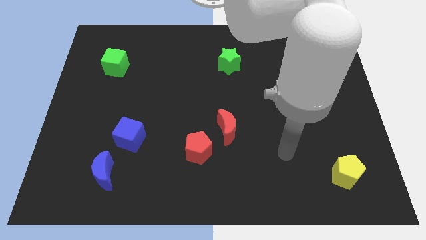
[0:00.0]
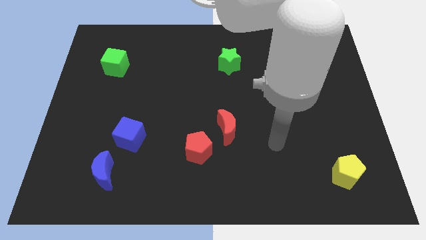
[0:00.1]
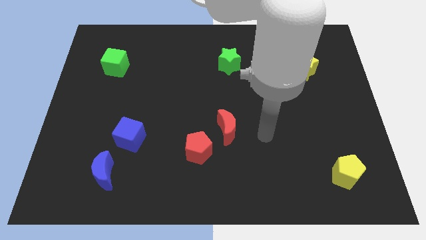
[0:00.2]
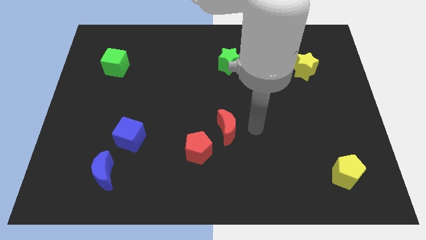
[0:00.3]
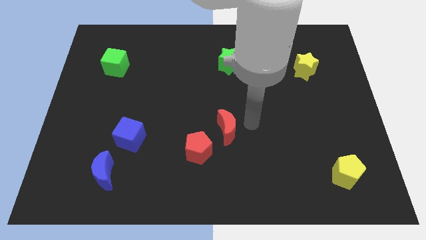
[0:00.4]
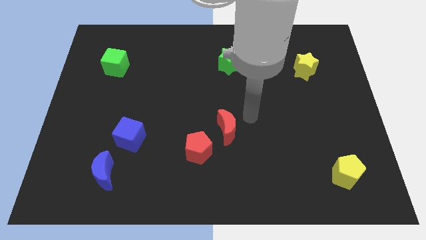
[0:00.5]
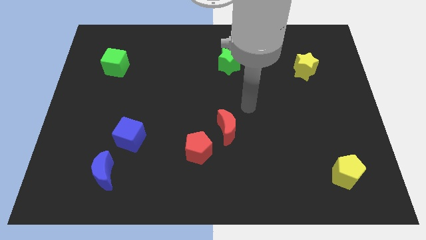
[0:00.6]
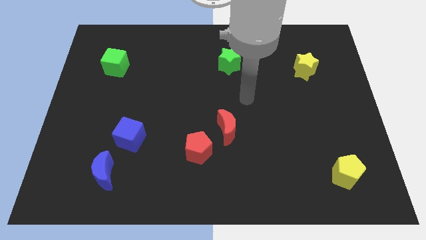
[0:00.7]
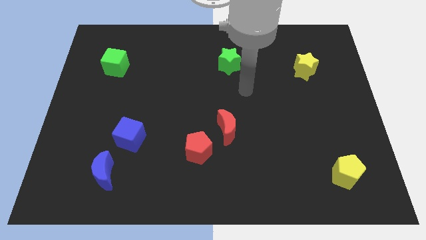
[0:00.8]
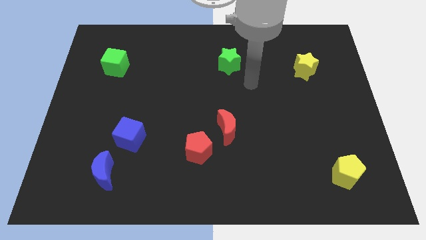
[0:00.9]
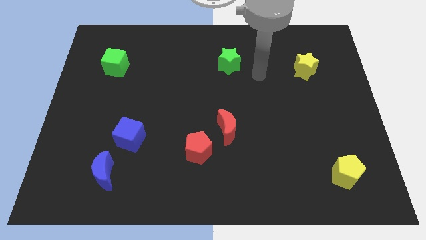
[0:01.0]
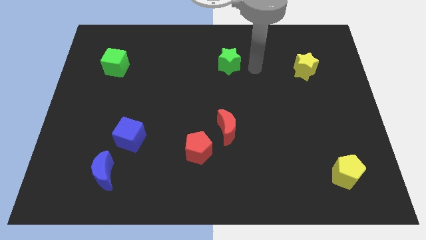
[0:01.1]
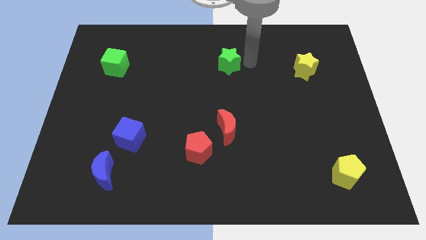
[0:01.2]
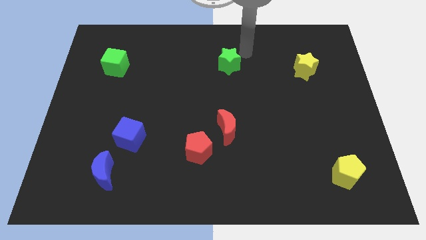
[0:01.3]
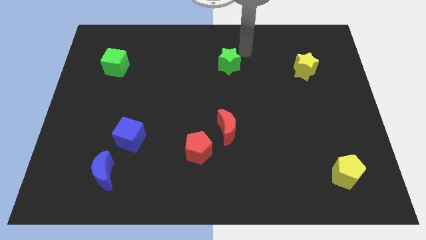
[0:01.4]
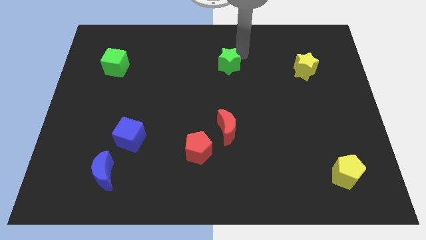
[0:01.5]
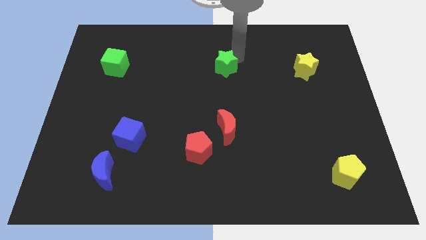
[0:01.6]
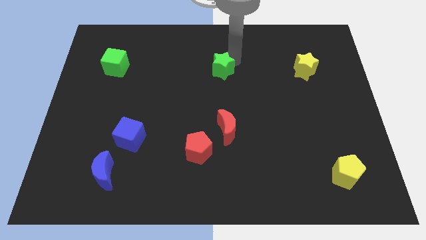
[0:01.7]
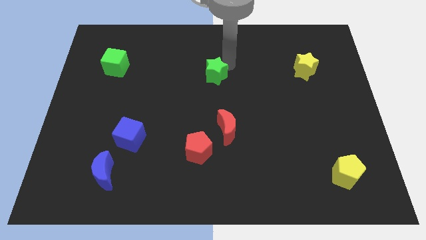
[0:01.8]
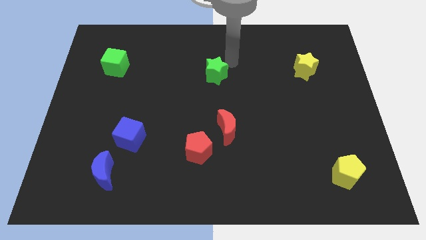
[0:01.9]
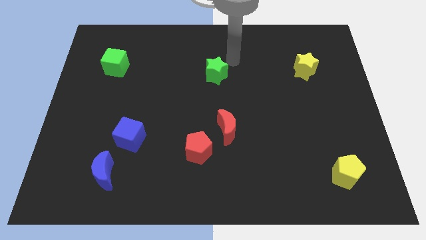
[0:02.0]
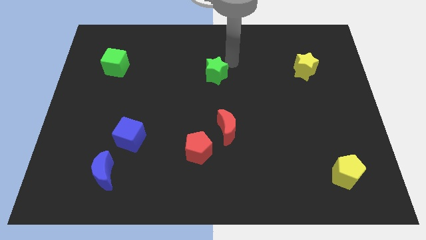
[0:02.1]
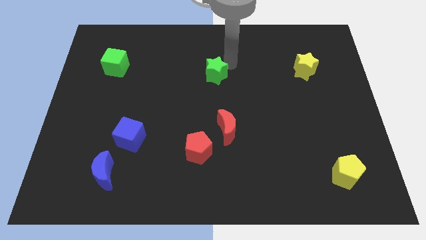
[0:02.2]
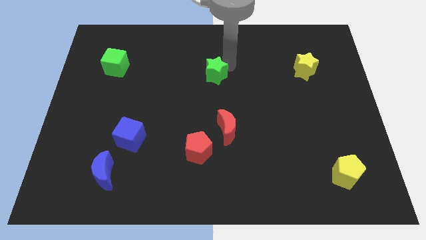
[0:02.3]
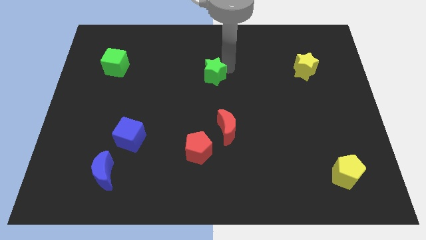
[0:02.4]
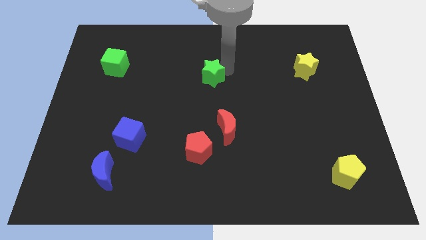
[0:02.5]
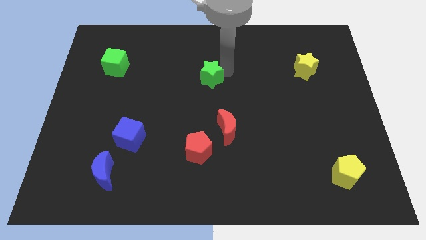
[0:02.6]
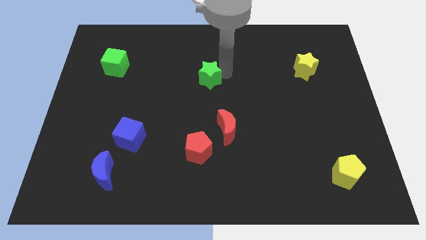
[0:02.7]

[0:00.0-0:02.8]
move the green star downwards and then to the left a bit

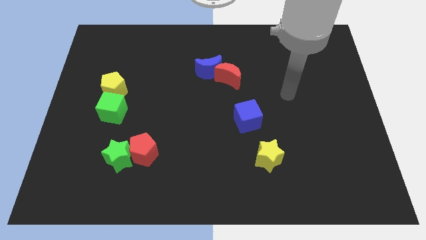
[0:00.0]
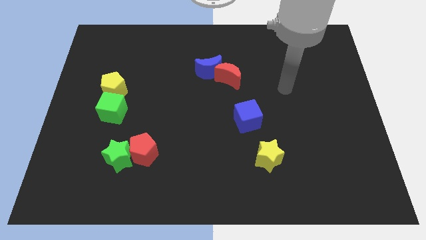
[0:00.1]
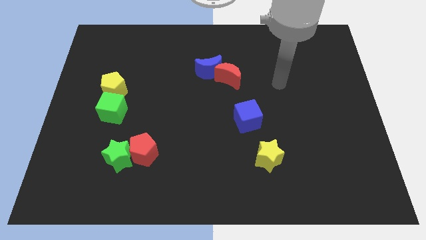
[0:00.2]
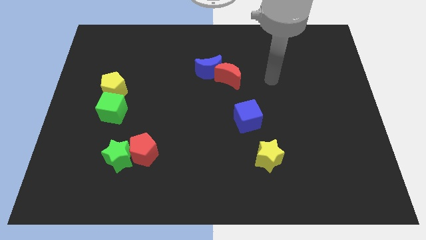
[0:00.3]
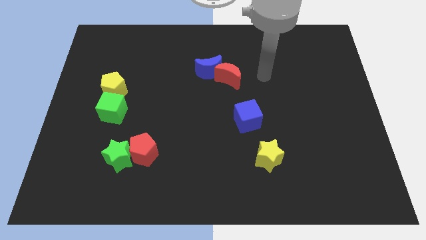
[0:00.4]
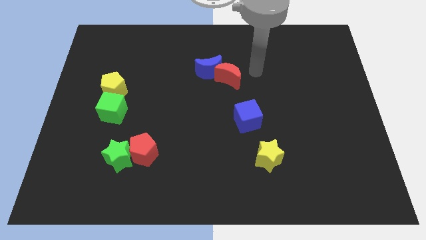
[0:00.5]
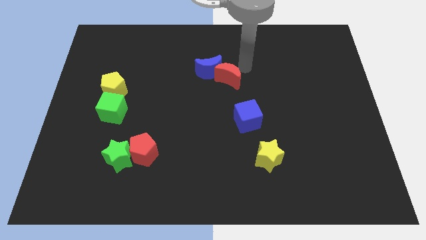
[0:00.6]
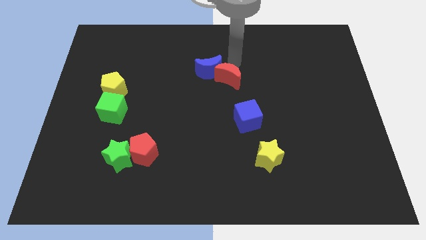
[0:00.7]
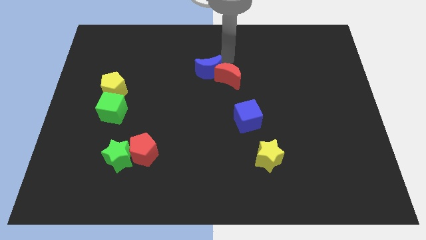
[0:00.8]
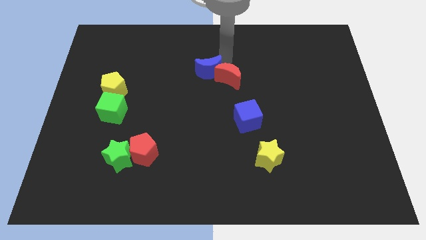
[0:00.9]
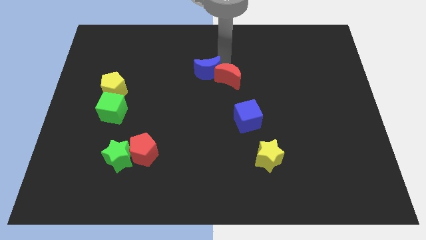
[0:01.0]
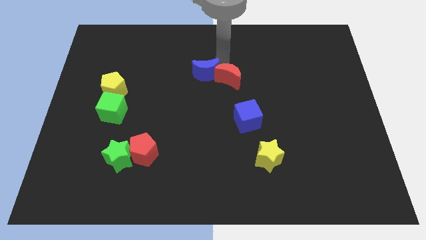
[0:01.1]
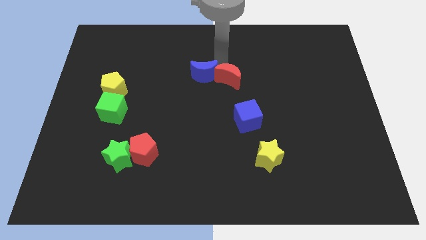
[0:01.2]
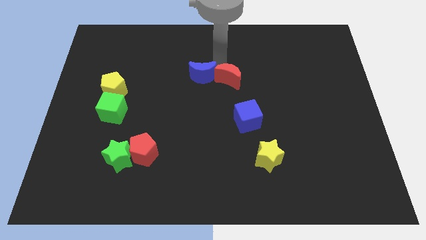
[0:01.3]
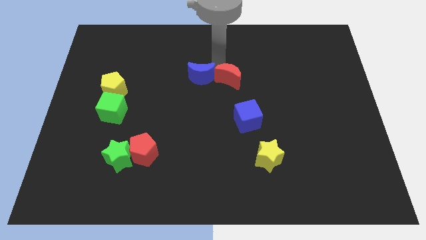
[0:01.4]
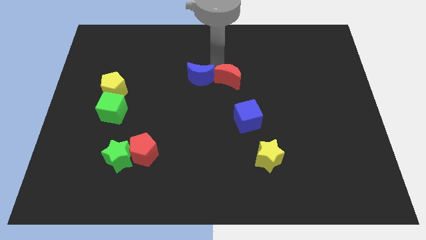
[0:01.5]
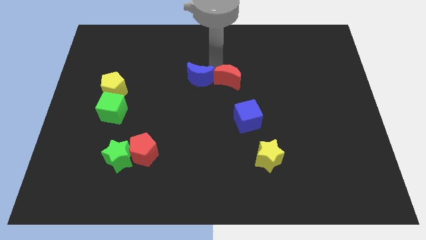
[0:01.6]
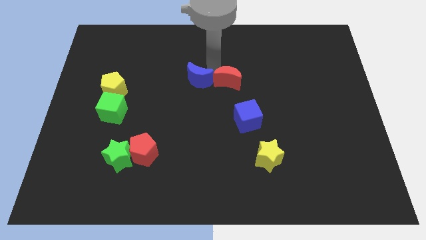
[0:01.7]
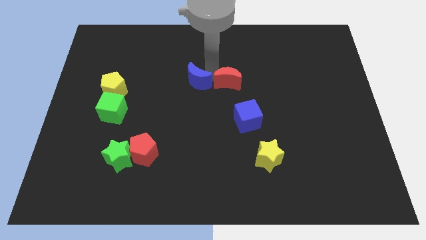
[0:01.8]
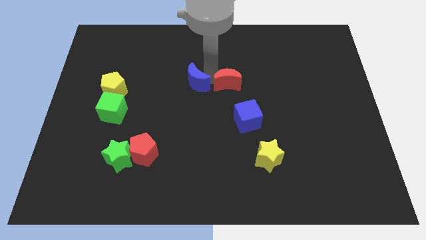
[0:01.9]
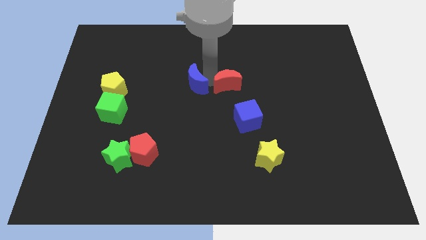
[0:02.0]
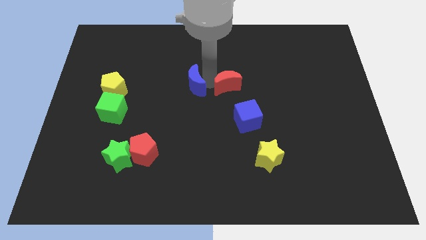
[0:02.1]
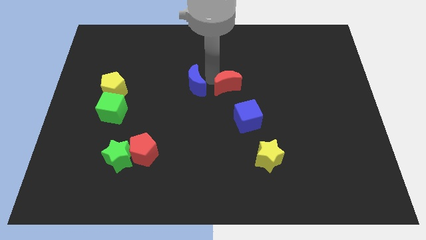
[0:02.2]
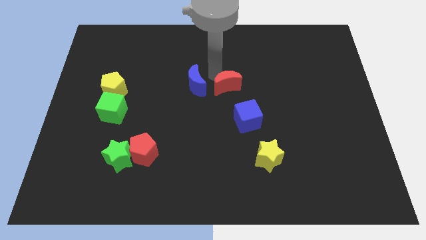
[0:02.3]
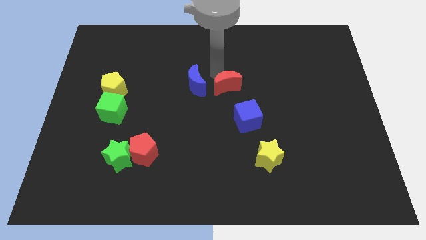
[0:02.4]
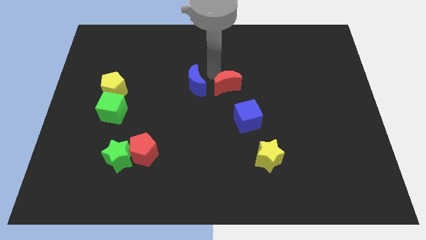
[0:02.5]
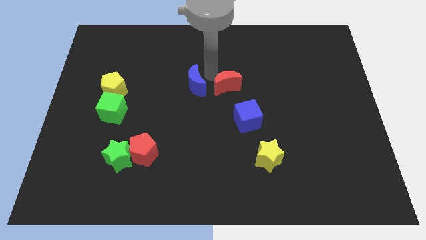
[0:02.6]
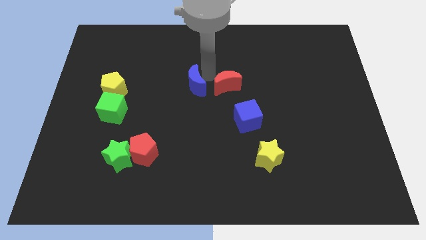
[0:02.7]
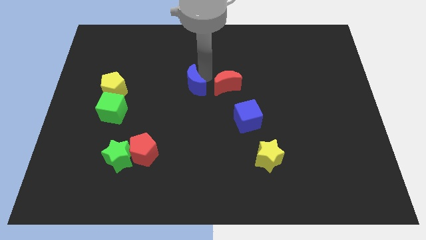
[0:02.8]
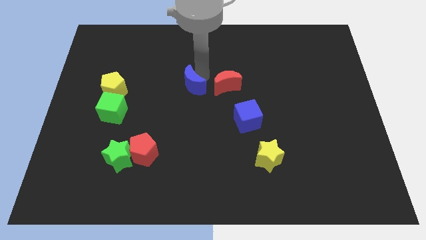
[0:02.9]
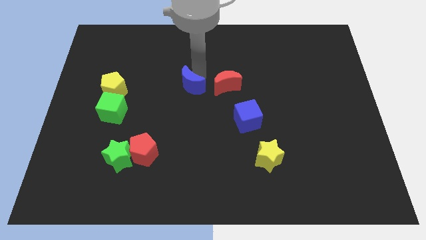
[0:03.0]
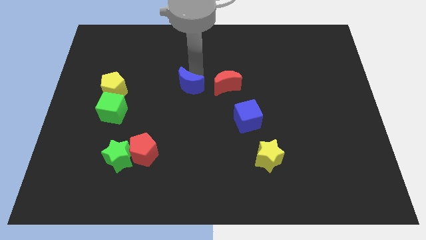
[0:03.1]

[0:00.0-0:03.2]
slightly push the blue moon down and then to the left

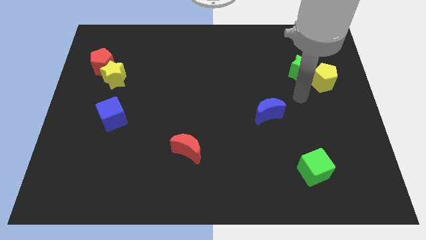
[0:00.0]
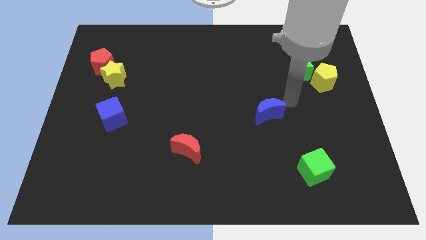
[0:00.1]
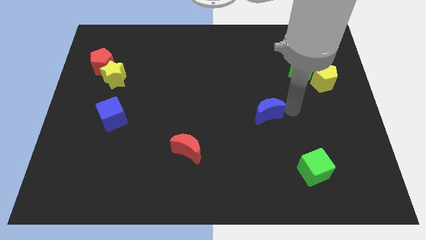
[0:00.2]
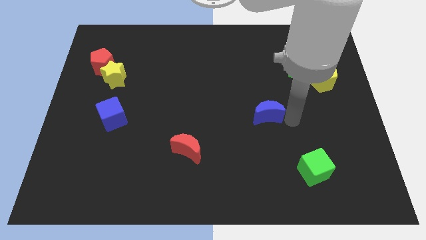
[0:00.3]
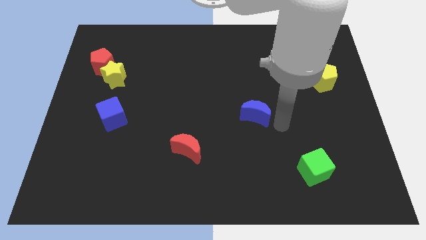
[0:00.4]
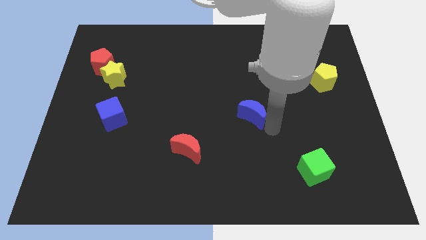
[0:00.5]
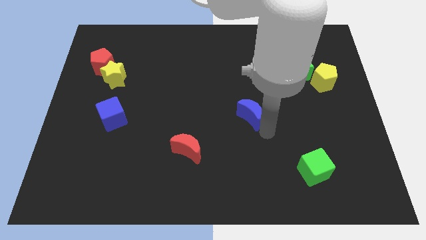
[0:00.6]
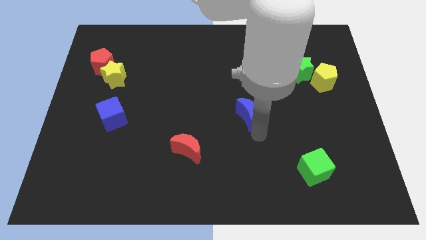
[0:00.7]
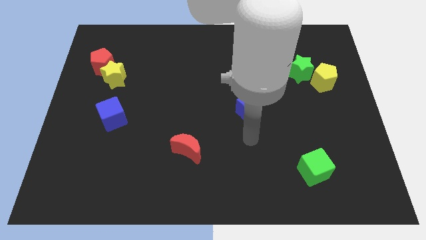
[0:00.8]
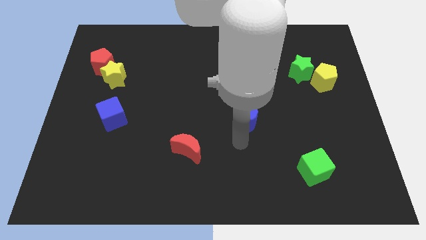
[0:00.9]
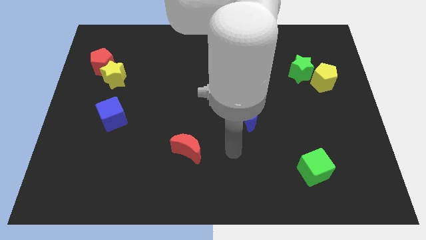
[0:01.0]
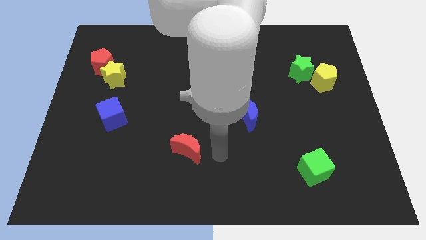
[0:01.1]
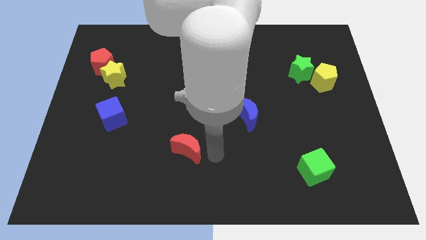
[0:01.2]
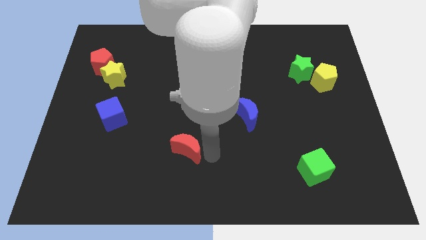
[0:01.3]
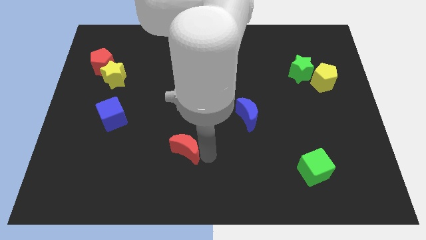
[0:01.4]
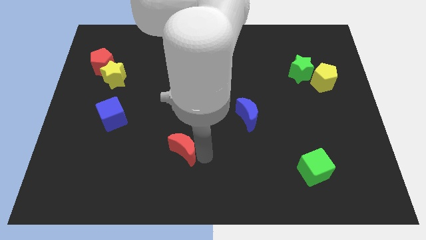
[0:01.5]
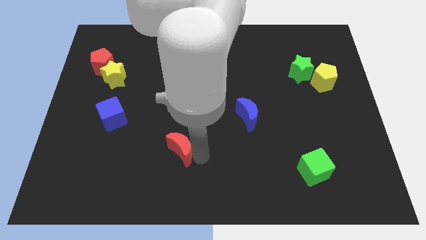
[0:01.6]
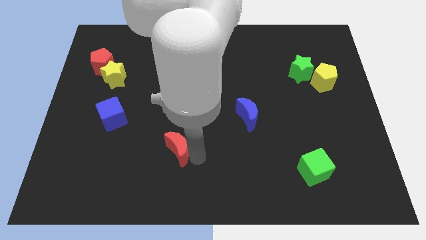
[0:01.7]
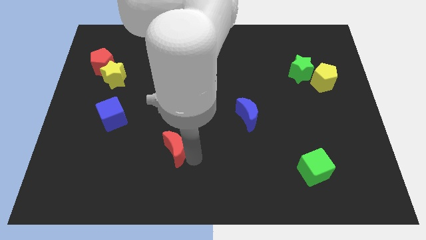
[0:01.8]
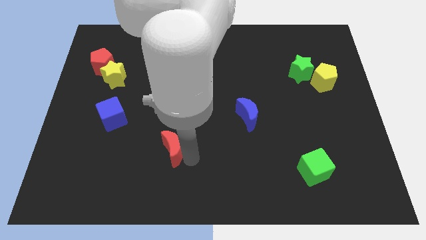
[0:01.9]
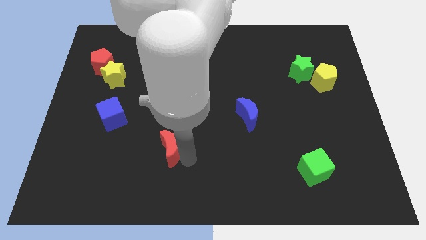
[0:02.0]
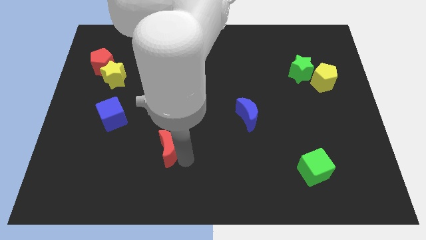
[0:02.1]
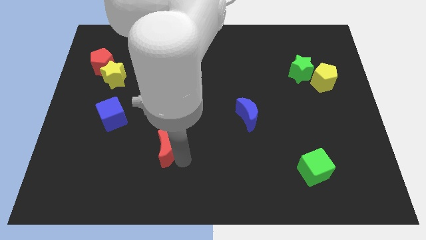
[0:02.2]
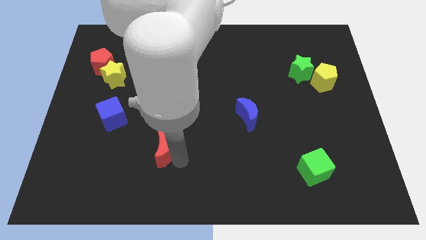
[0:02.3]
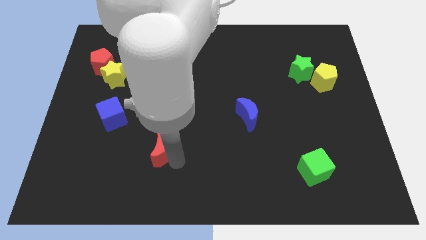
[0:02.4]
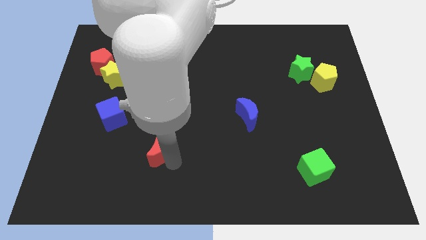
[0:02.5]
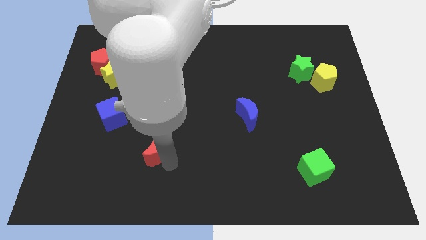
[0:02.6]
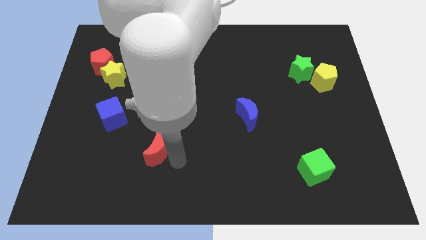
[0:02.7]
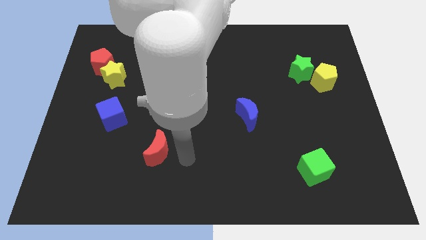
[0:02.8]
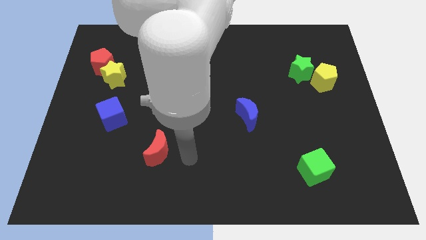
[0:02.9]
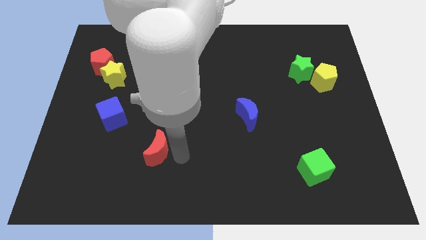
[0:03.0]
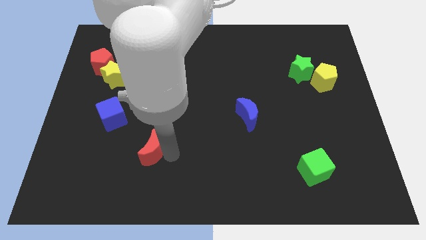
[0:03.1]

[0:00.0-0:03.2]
move the red moon slightly to the left
